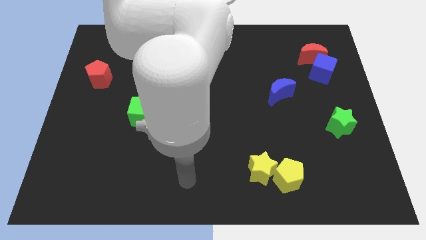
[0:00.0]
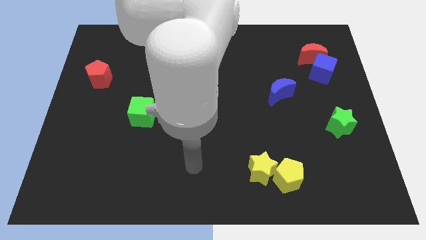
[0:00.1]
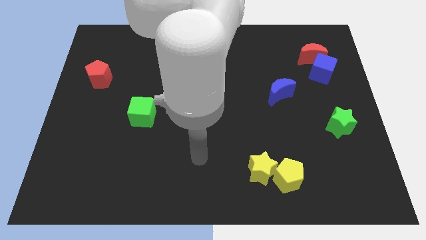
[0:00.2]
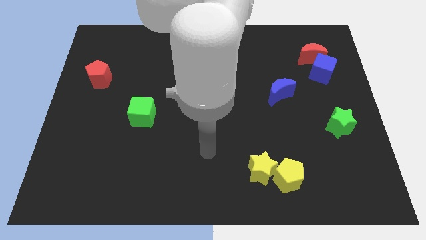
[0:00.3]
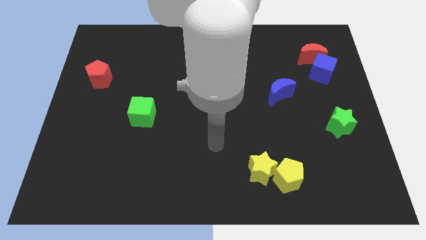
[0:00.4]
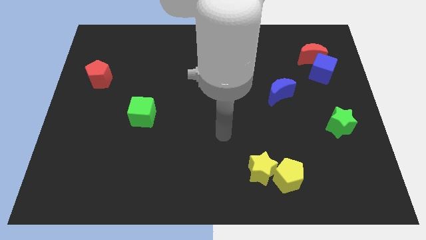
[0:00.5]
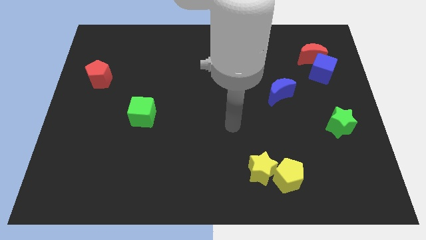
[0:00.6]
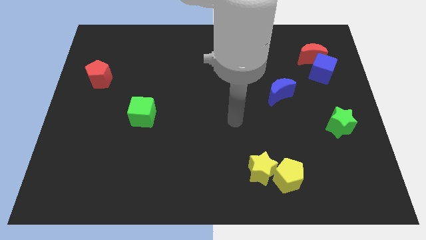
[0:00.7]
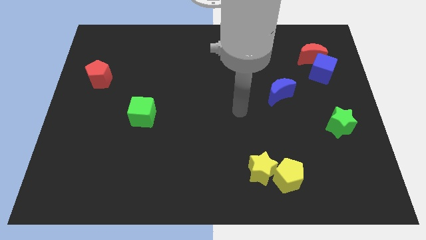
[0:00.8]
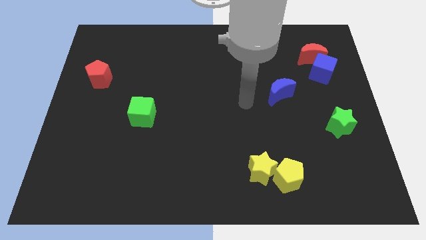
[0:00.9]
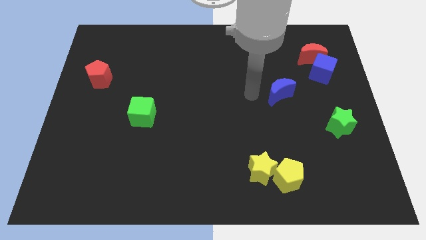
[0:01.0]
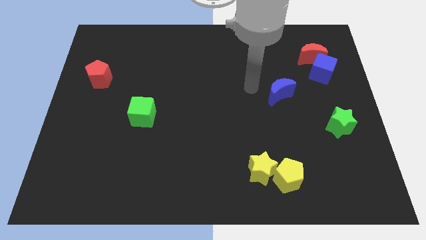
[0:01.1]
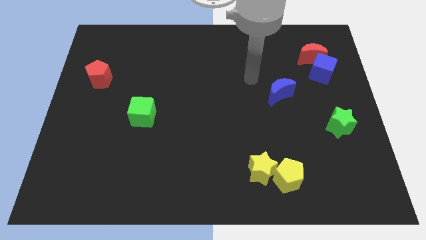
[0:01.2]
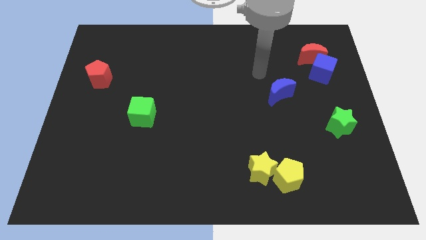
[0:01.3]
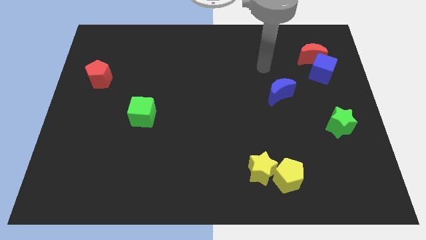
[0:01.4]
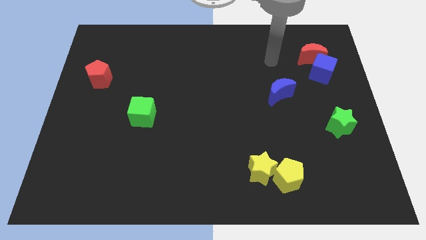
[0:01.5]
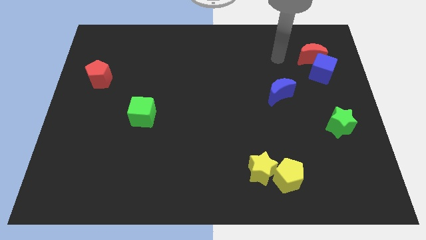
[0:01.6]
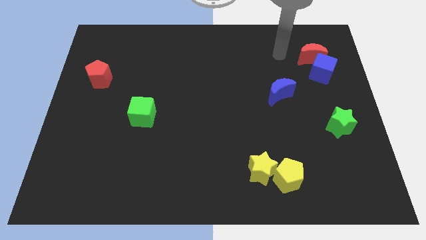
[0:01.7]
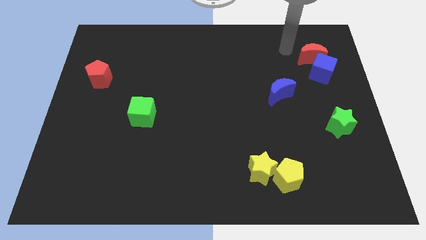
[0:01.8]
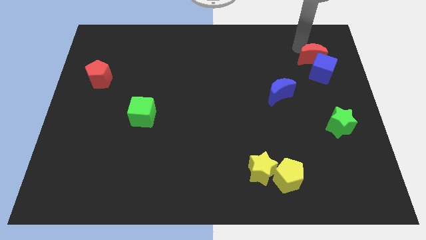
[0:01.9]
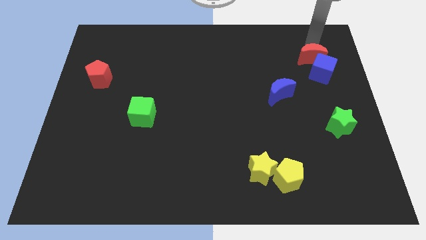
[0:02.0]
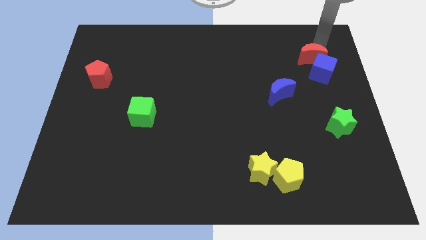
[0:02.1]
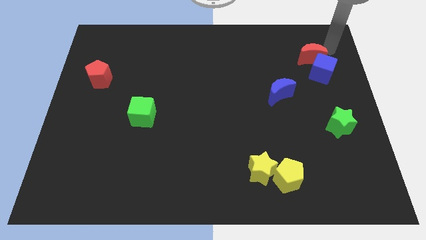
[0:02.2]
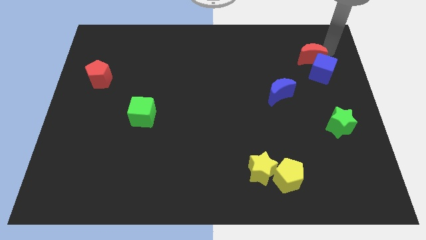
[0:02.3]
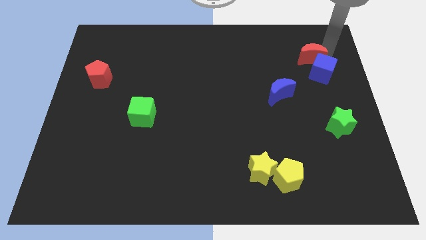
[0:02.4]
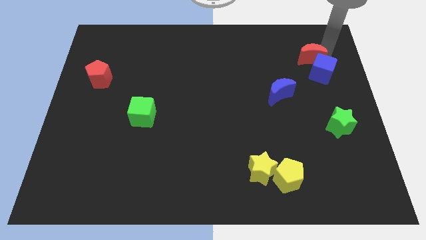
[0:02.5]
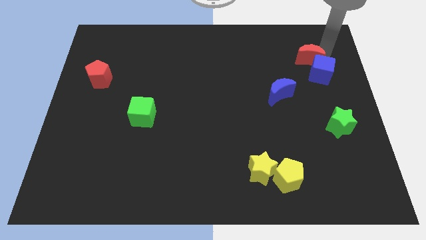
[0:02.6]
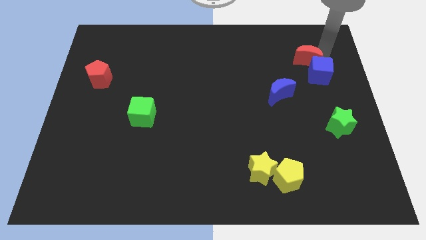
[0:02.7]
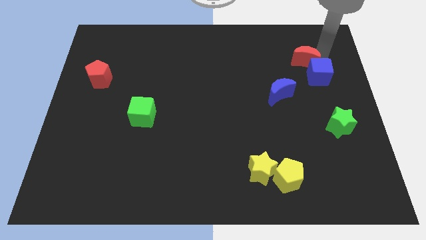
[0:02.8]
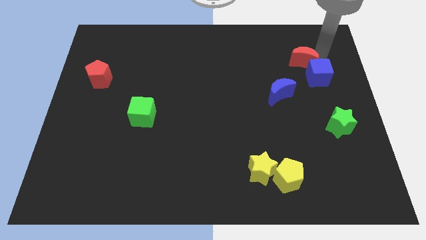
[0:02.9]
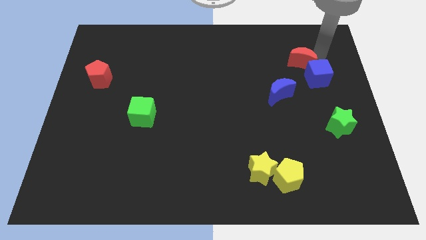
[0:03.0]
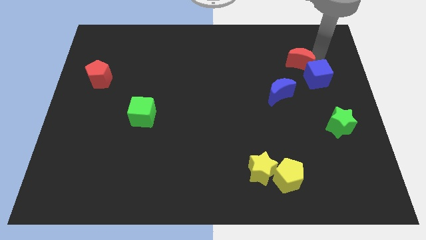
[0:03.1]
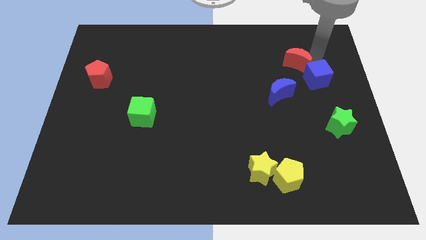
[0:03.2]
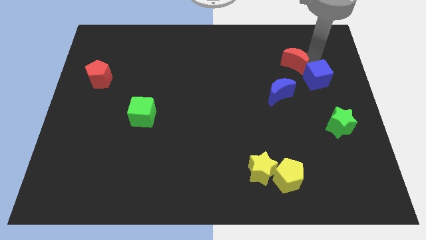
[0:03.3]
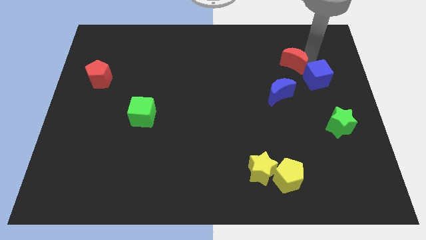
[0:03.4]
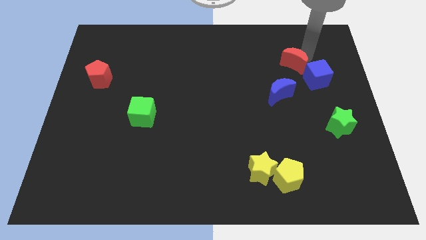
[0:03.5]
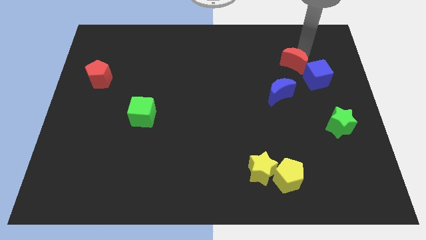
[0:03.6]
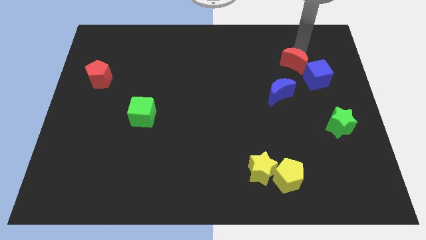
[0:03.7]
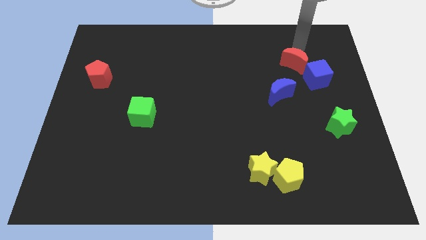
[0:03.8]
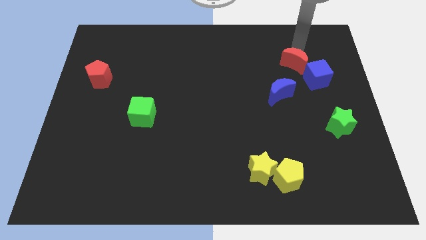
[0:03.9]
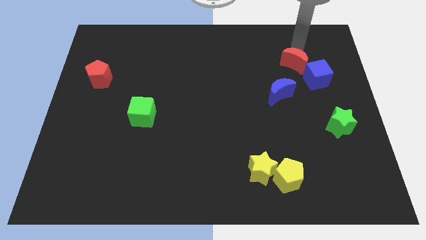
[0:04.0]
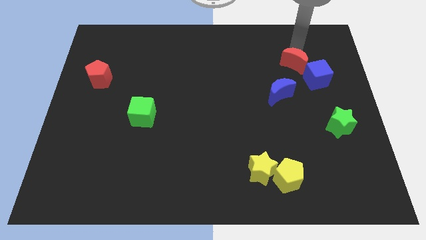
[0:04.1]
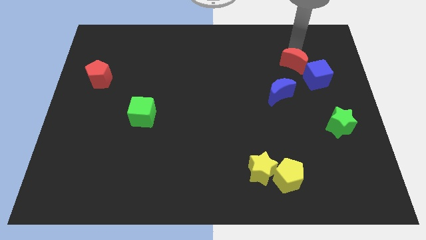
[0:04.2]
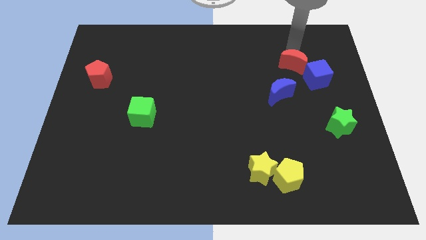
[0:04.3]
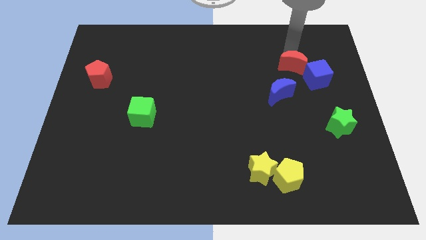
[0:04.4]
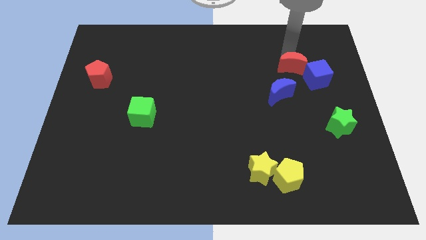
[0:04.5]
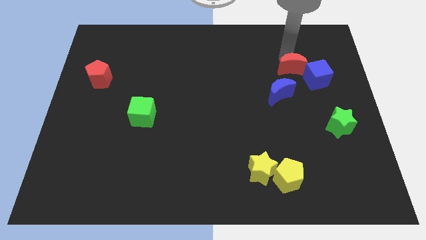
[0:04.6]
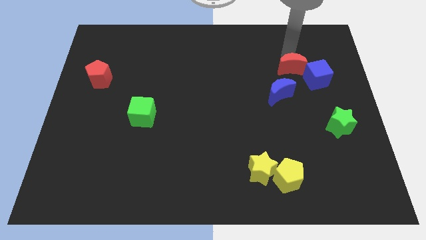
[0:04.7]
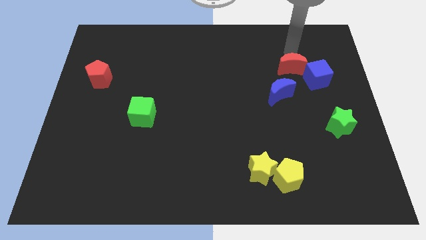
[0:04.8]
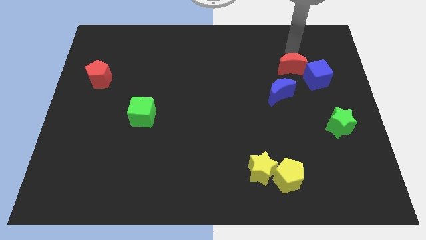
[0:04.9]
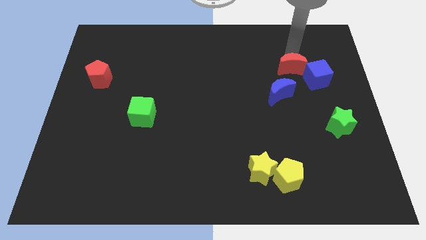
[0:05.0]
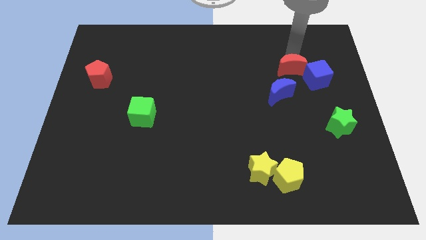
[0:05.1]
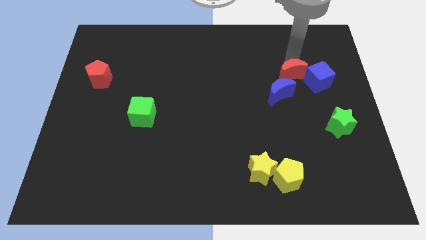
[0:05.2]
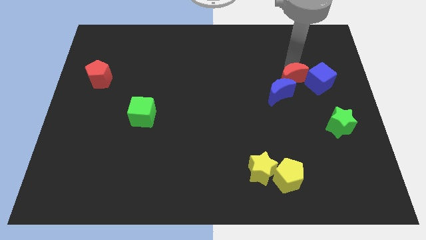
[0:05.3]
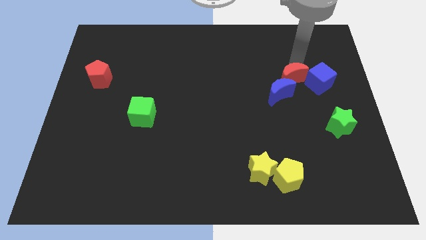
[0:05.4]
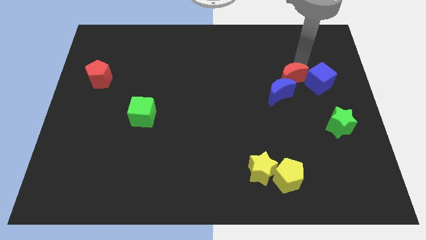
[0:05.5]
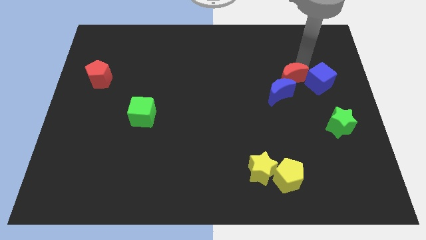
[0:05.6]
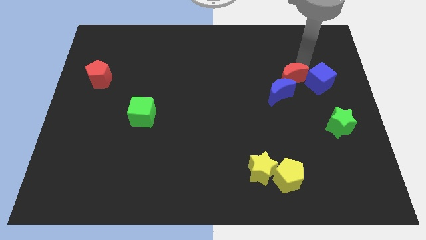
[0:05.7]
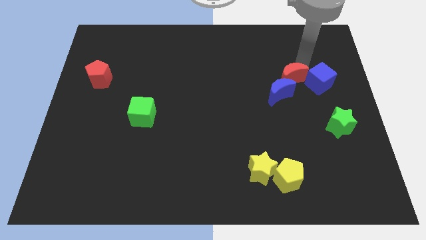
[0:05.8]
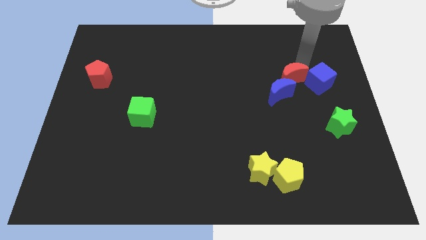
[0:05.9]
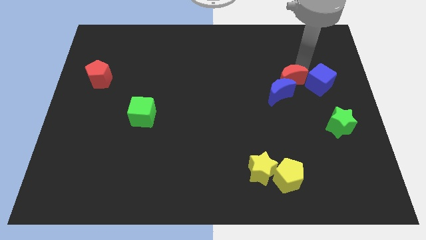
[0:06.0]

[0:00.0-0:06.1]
put the red moon towards the blue moon
